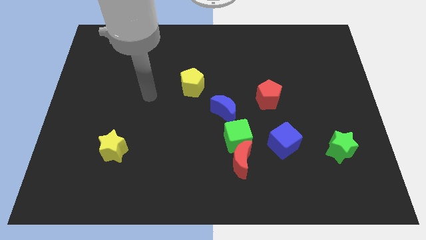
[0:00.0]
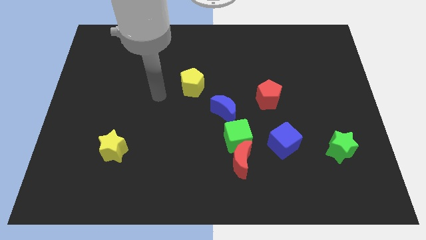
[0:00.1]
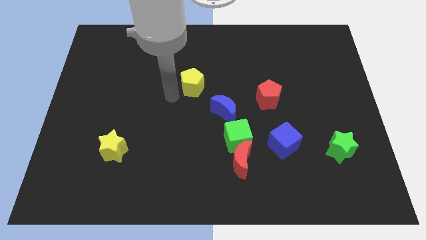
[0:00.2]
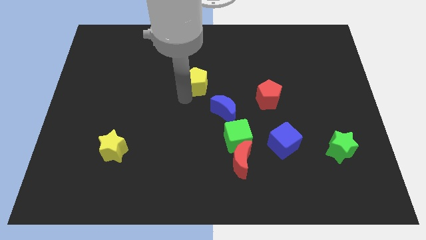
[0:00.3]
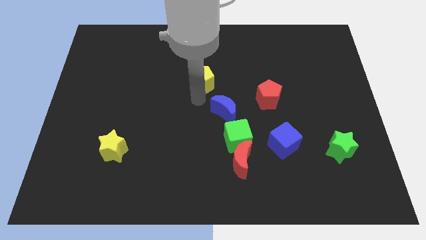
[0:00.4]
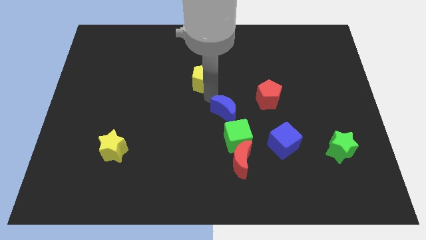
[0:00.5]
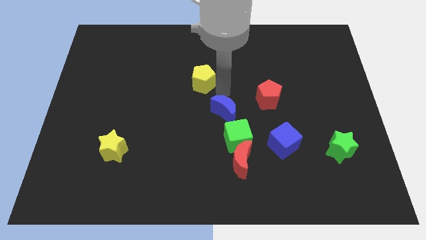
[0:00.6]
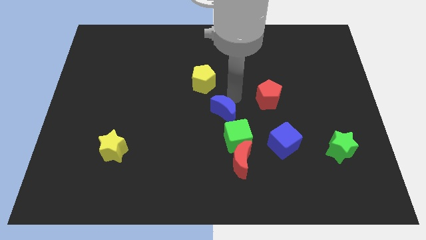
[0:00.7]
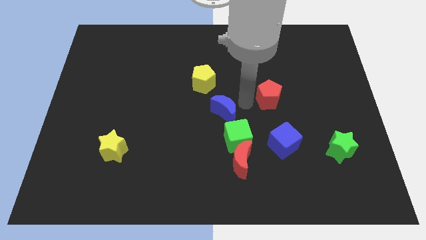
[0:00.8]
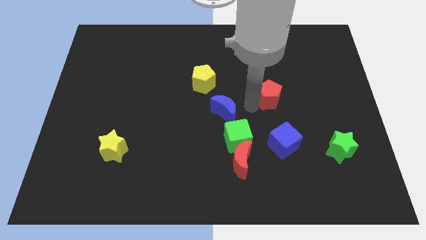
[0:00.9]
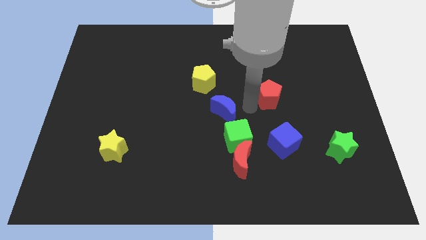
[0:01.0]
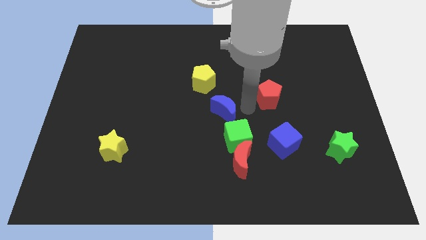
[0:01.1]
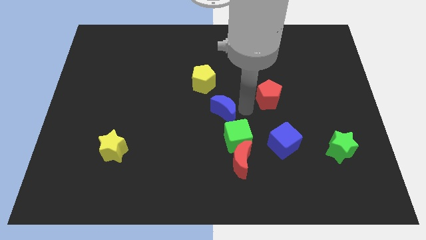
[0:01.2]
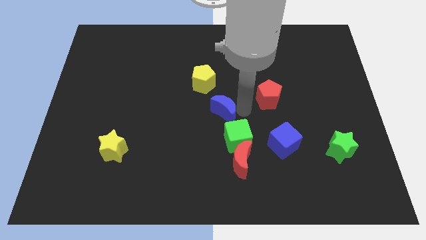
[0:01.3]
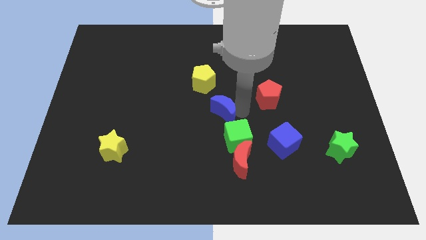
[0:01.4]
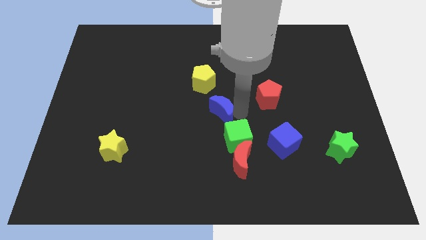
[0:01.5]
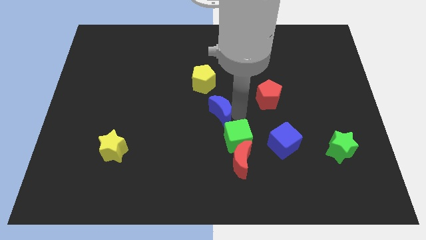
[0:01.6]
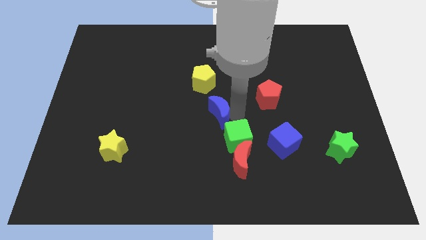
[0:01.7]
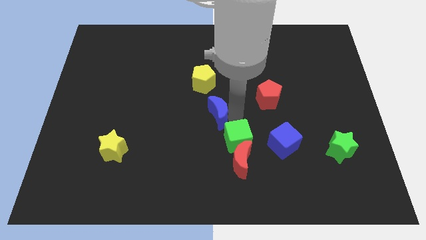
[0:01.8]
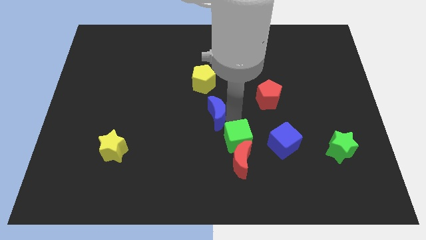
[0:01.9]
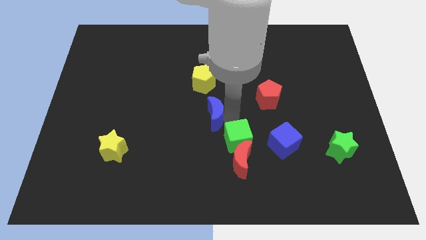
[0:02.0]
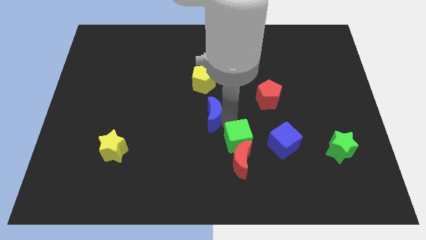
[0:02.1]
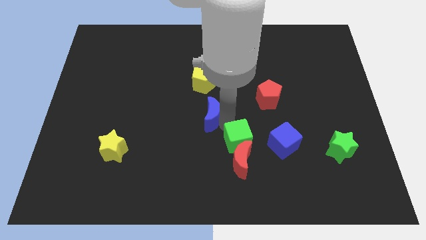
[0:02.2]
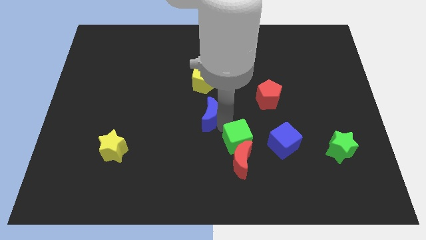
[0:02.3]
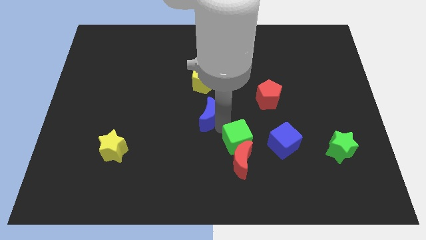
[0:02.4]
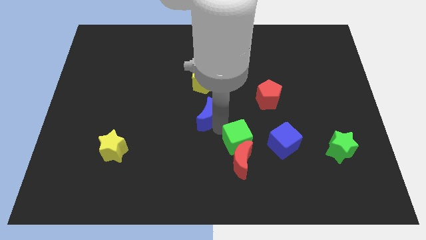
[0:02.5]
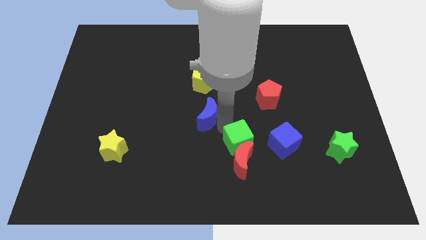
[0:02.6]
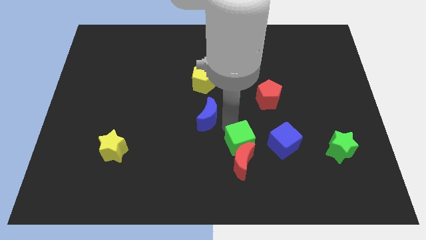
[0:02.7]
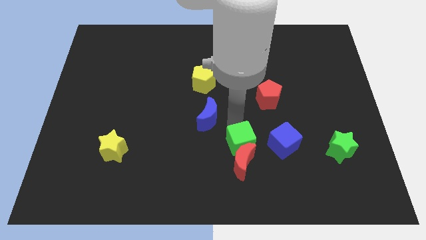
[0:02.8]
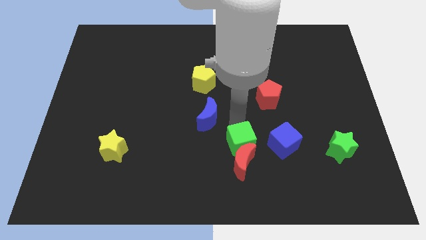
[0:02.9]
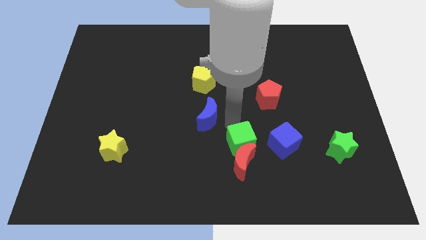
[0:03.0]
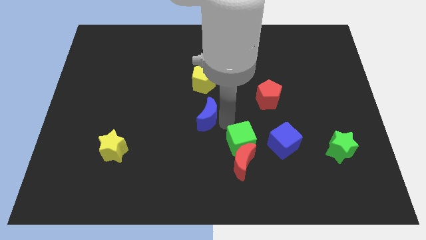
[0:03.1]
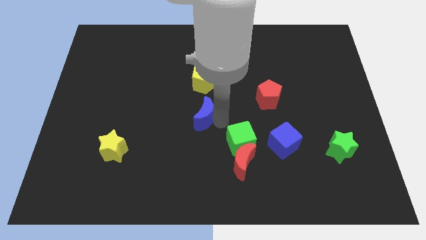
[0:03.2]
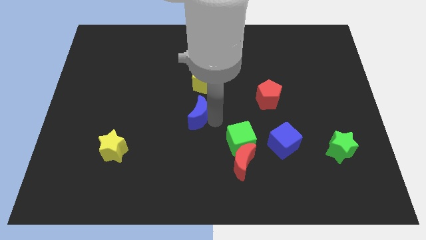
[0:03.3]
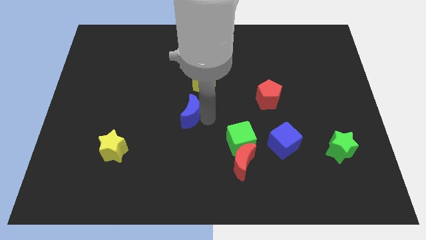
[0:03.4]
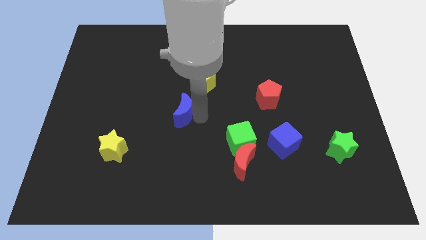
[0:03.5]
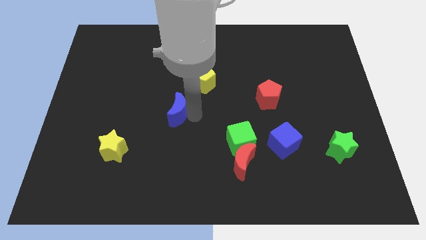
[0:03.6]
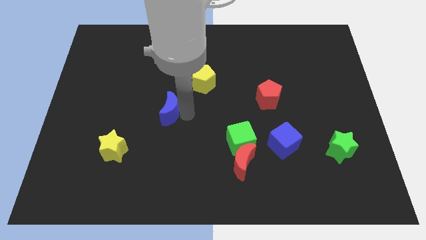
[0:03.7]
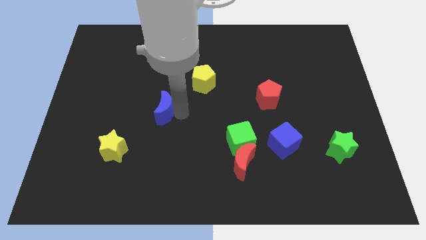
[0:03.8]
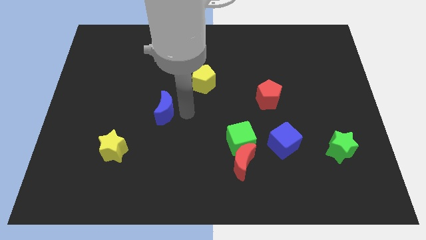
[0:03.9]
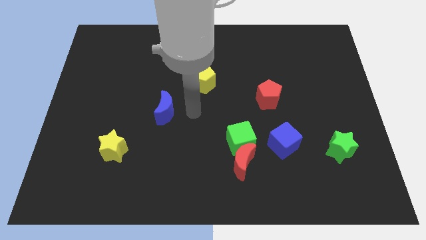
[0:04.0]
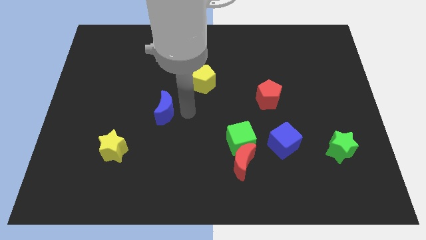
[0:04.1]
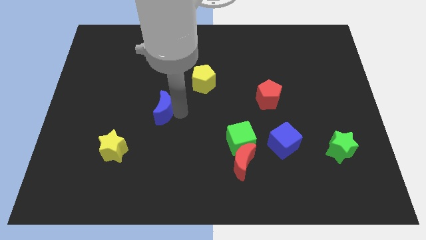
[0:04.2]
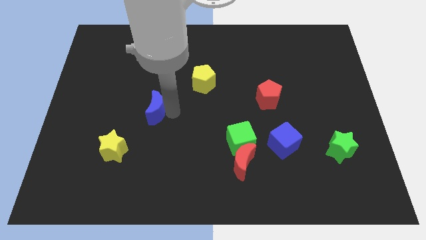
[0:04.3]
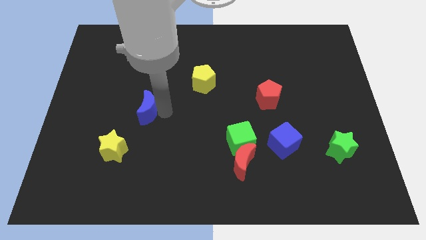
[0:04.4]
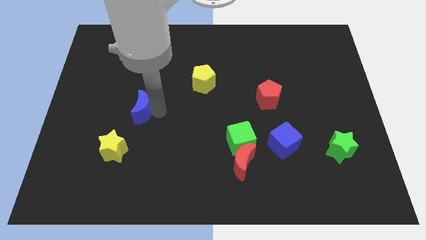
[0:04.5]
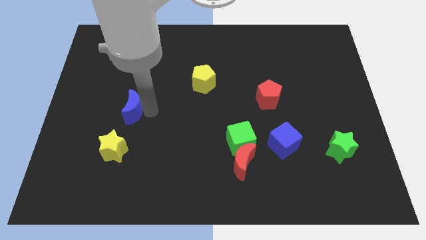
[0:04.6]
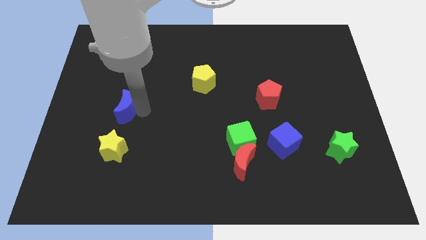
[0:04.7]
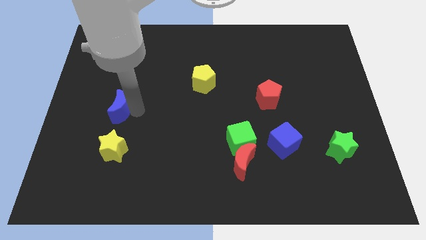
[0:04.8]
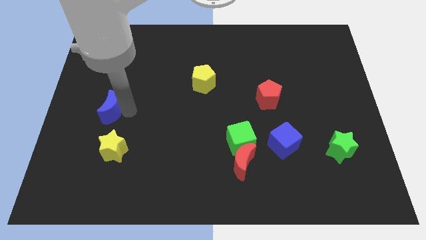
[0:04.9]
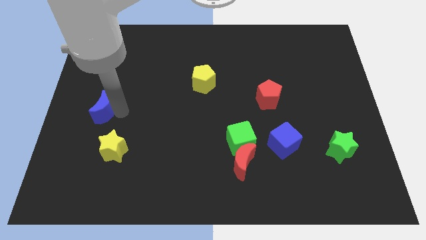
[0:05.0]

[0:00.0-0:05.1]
put the blue moon to the left side

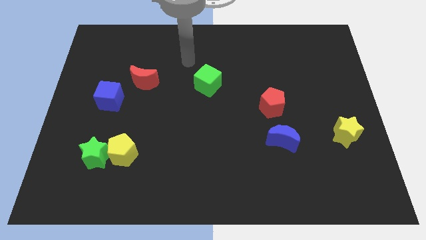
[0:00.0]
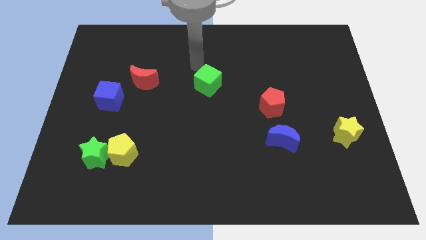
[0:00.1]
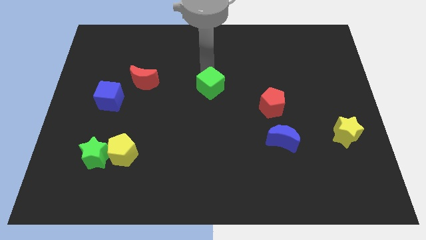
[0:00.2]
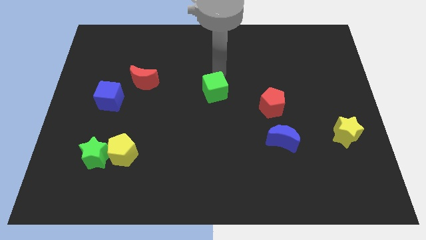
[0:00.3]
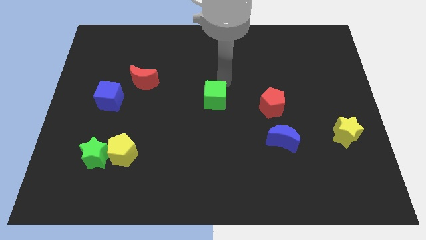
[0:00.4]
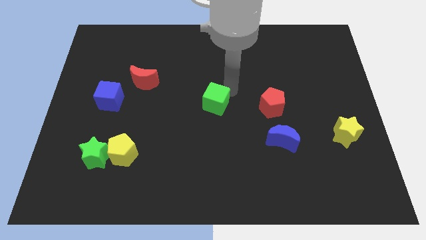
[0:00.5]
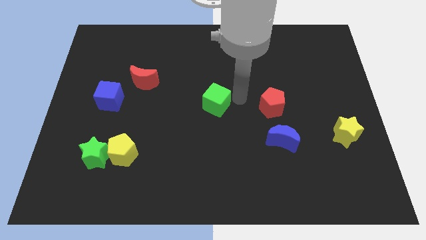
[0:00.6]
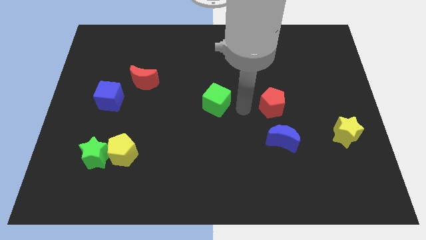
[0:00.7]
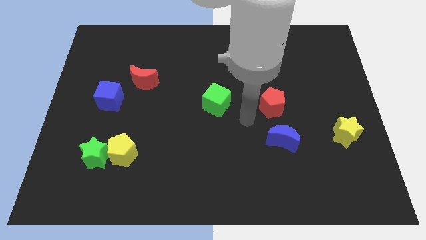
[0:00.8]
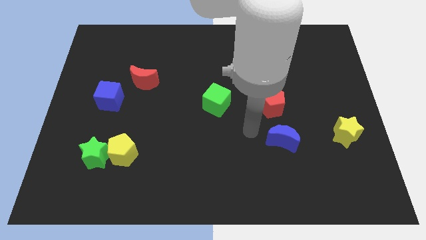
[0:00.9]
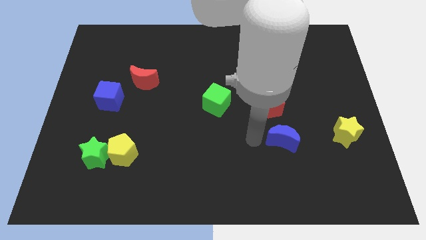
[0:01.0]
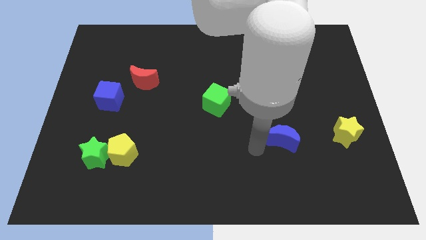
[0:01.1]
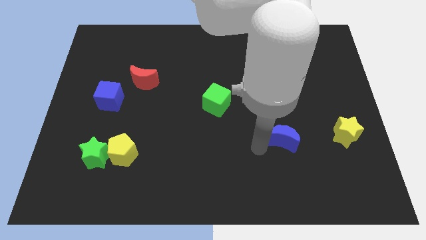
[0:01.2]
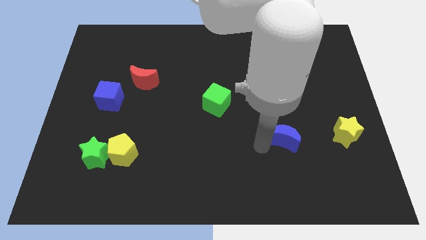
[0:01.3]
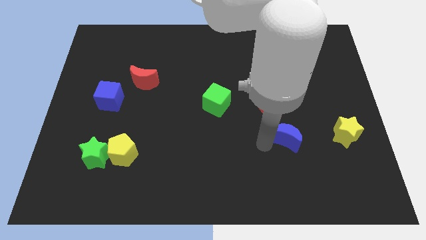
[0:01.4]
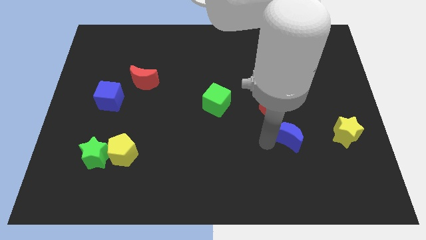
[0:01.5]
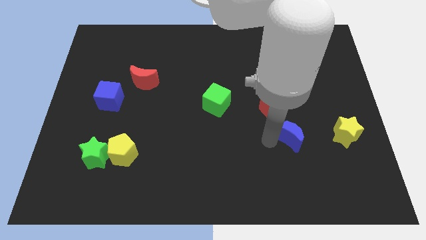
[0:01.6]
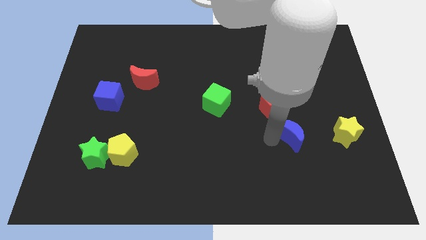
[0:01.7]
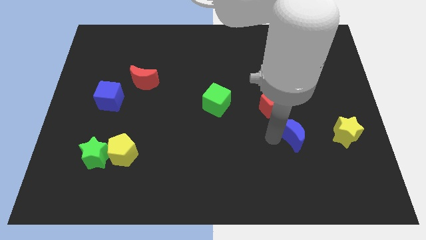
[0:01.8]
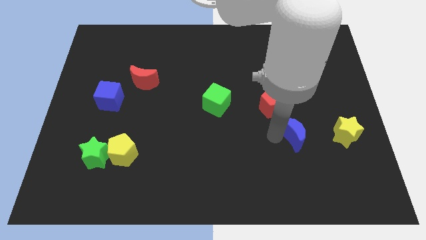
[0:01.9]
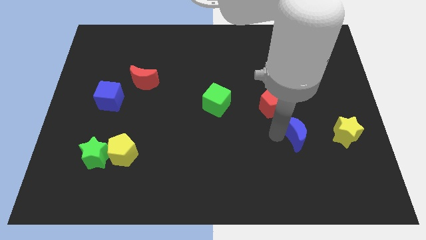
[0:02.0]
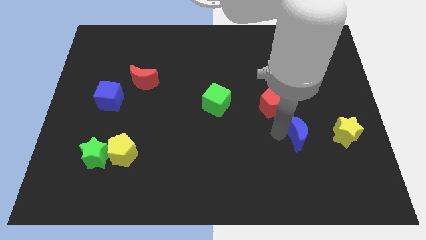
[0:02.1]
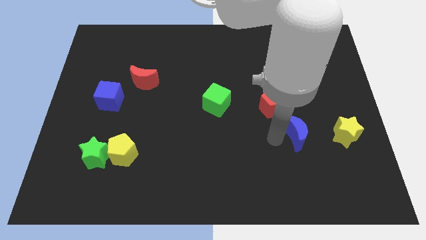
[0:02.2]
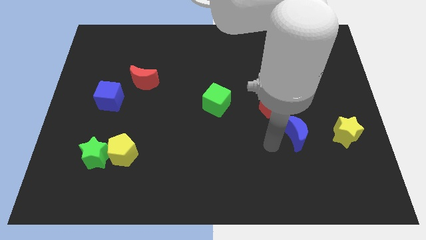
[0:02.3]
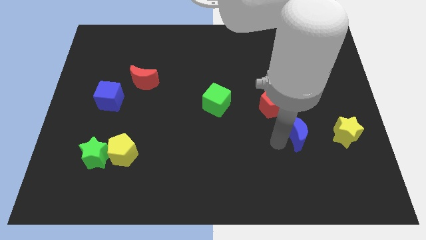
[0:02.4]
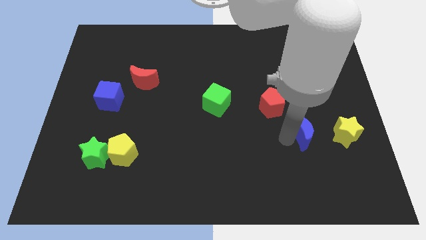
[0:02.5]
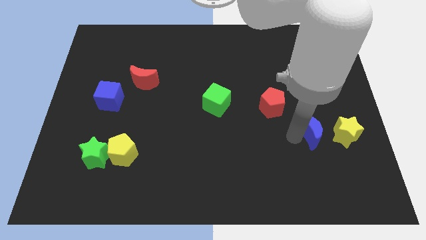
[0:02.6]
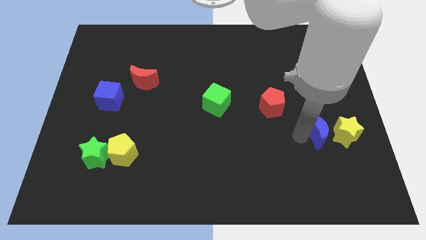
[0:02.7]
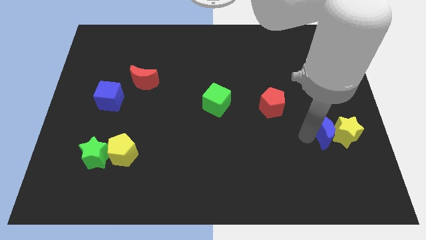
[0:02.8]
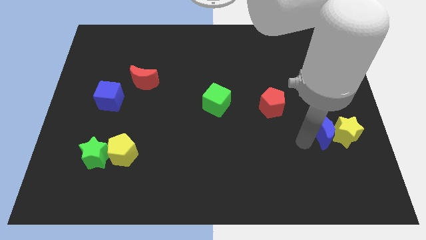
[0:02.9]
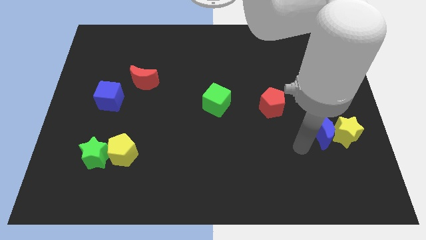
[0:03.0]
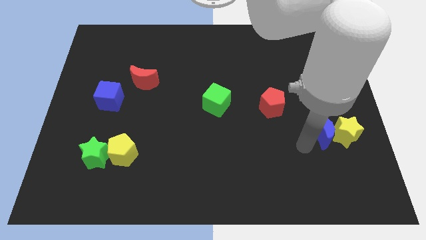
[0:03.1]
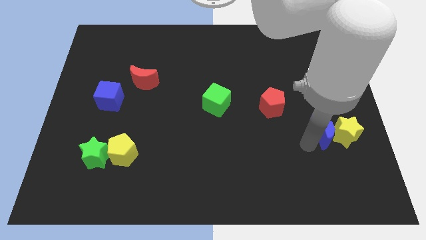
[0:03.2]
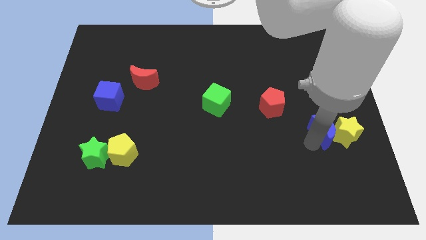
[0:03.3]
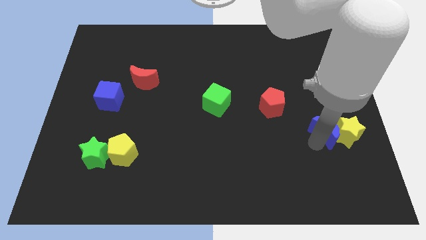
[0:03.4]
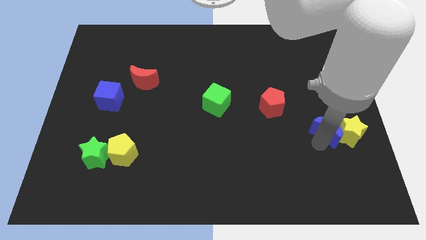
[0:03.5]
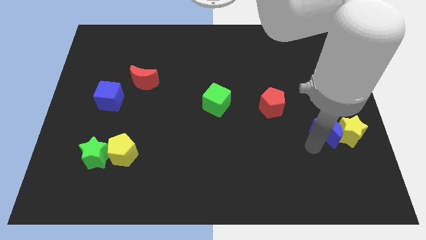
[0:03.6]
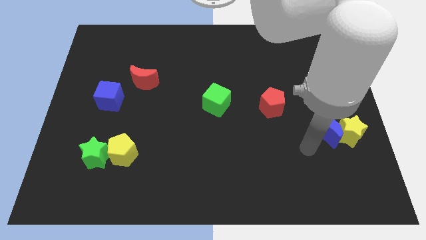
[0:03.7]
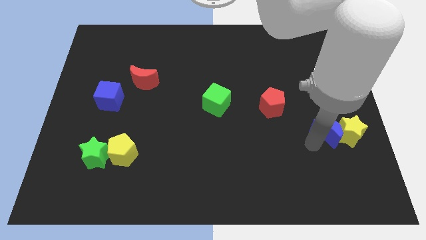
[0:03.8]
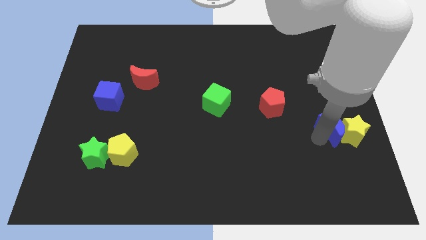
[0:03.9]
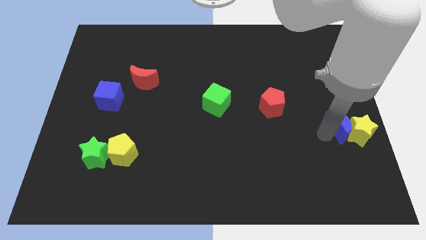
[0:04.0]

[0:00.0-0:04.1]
move the blue moon to the right side of the board
